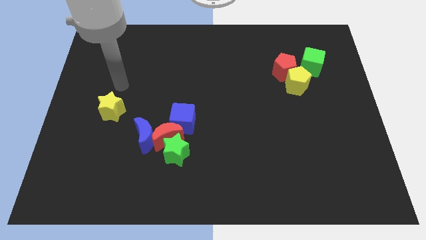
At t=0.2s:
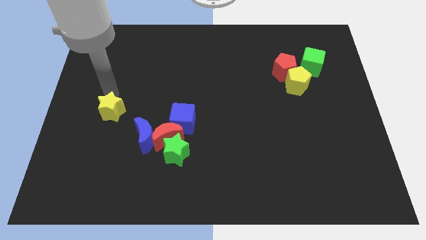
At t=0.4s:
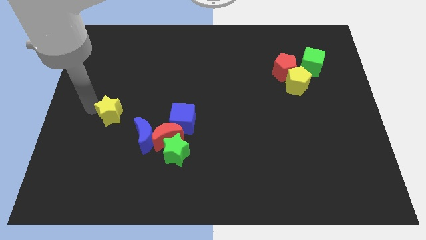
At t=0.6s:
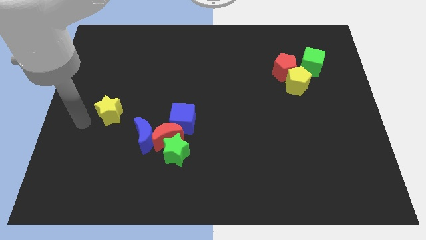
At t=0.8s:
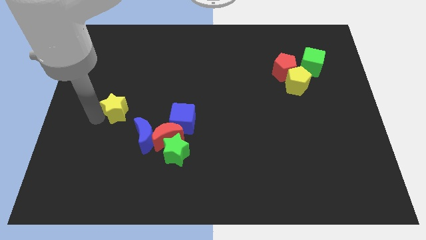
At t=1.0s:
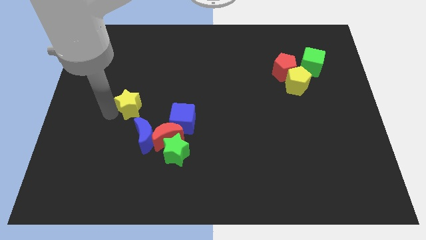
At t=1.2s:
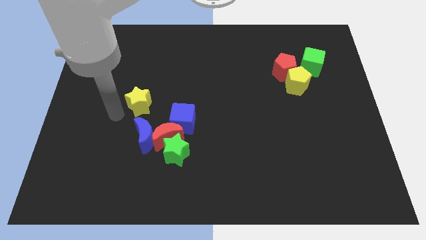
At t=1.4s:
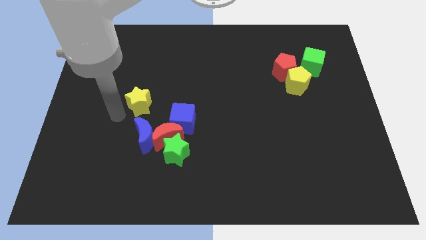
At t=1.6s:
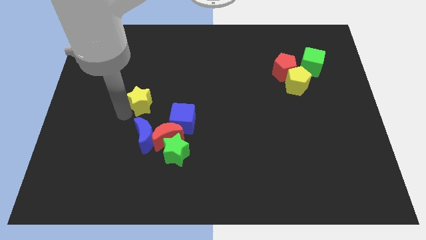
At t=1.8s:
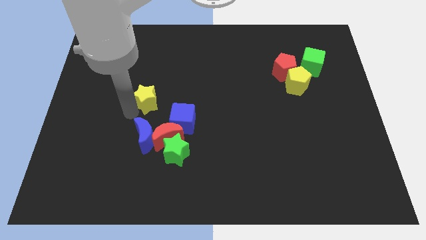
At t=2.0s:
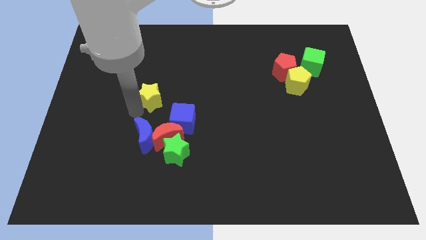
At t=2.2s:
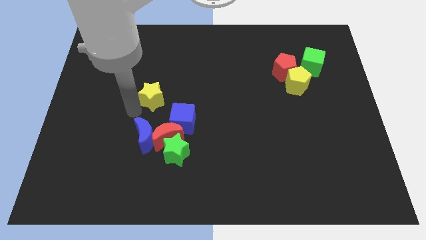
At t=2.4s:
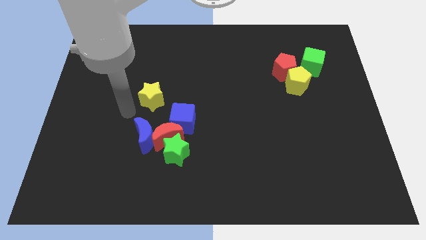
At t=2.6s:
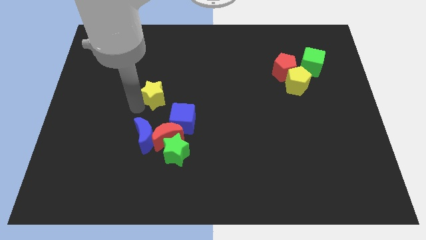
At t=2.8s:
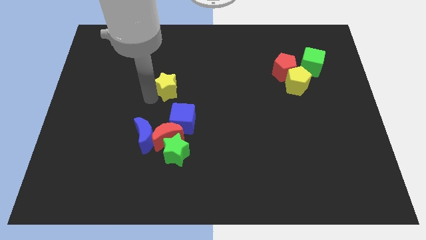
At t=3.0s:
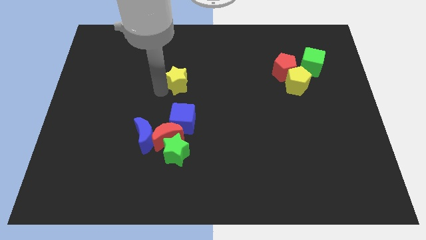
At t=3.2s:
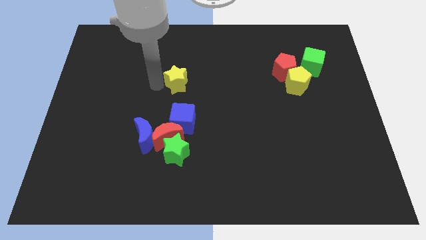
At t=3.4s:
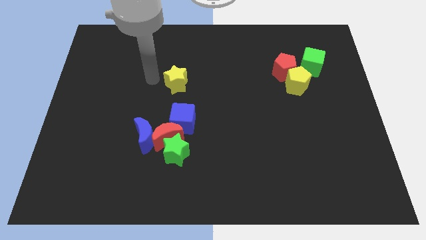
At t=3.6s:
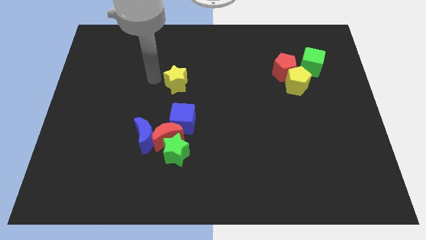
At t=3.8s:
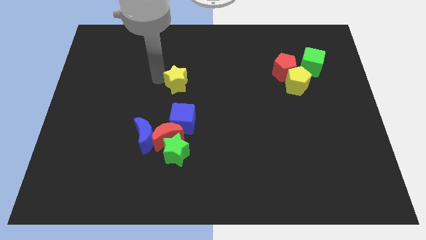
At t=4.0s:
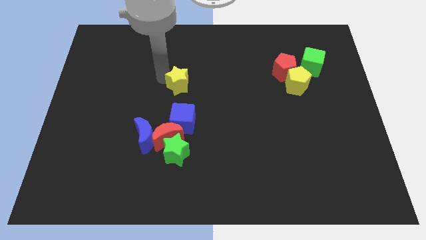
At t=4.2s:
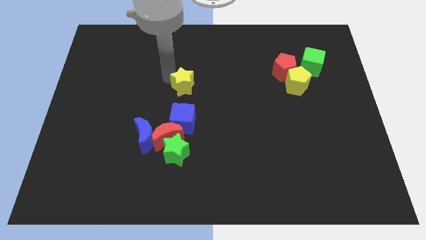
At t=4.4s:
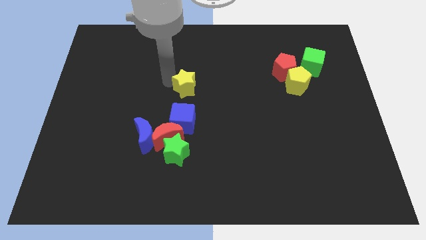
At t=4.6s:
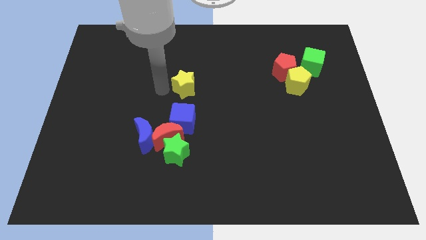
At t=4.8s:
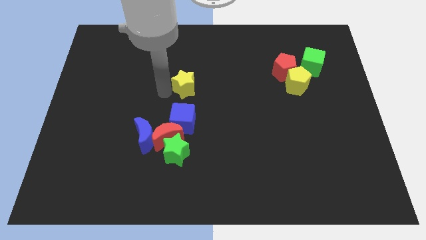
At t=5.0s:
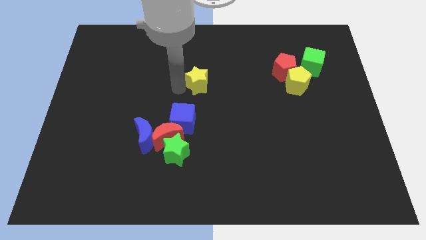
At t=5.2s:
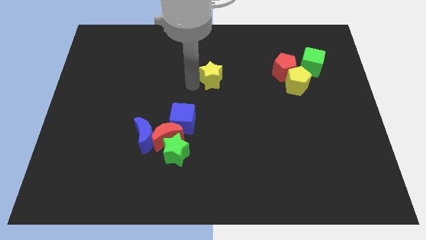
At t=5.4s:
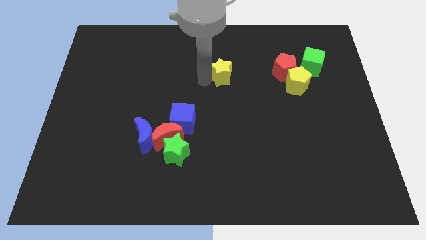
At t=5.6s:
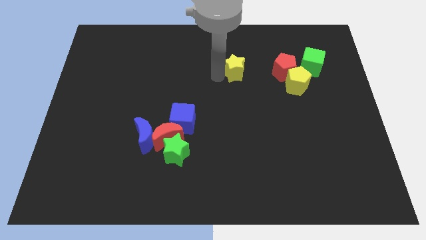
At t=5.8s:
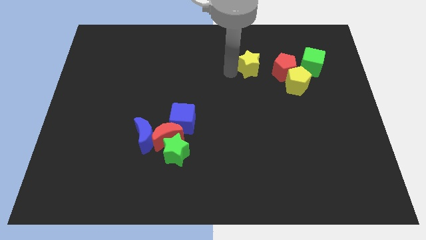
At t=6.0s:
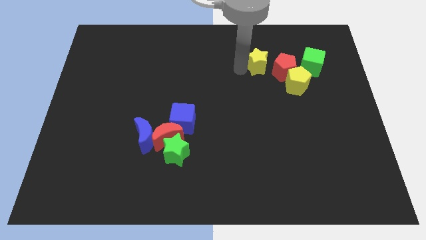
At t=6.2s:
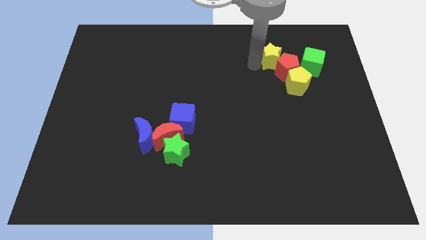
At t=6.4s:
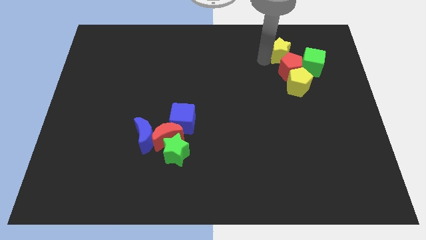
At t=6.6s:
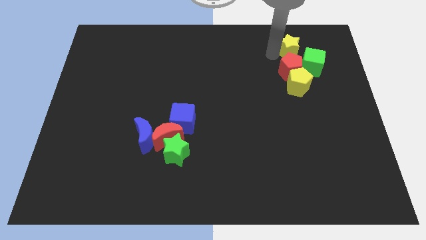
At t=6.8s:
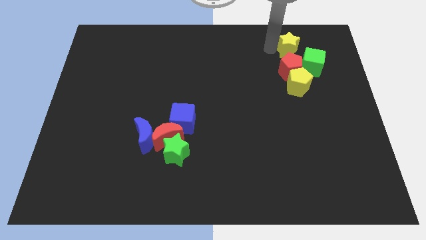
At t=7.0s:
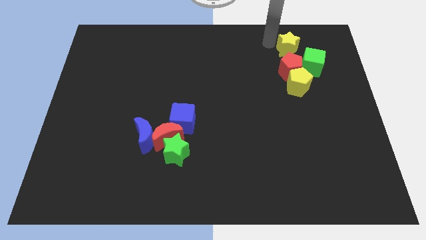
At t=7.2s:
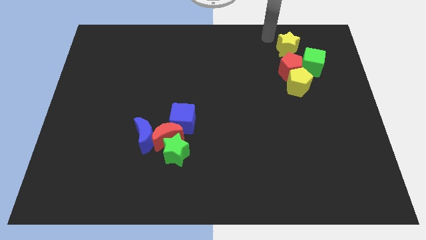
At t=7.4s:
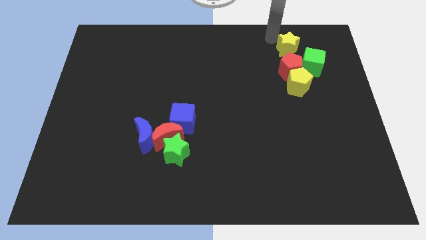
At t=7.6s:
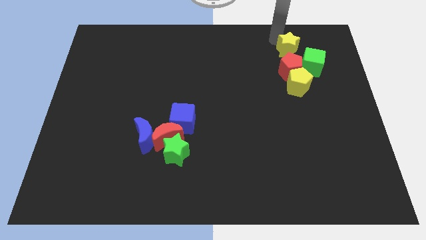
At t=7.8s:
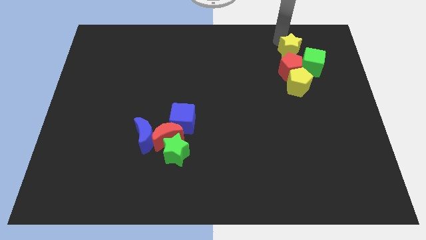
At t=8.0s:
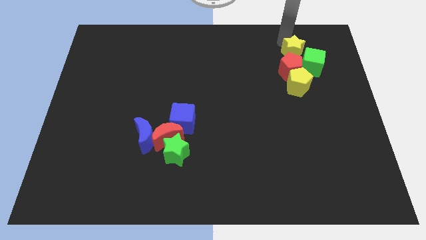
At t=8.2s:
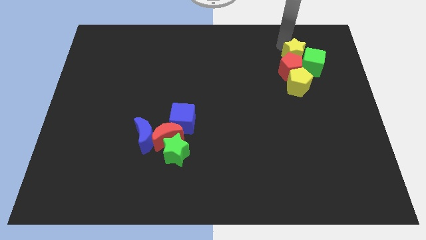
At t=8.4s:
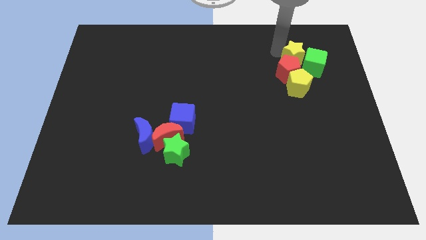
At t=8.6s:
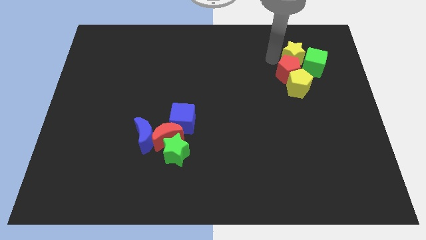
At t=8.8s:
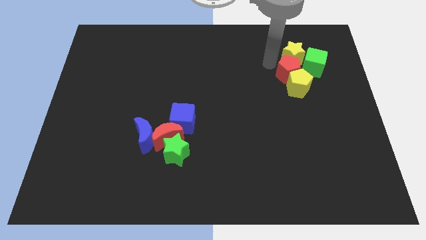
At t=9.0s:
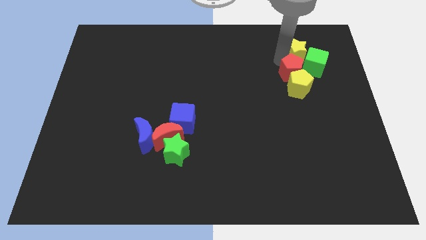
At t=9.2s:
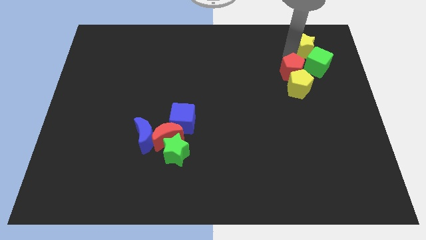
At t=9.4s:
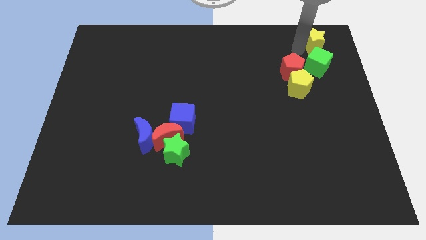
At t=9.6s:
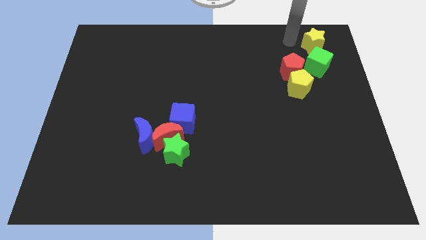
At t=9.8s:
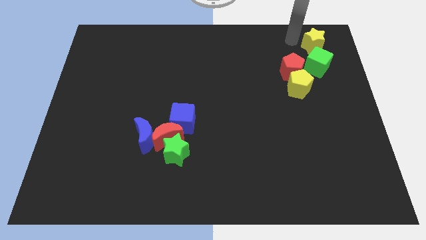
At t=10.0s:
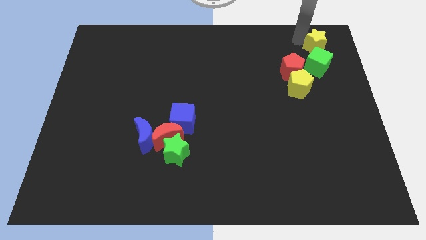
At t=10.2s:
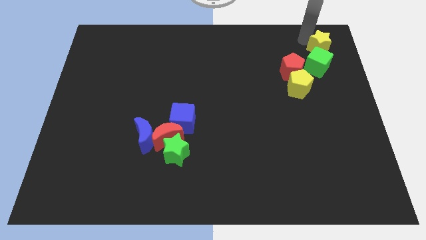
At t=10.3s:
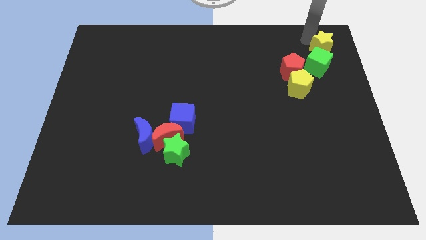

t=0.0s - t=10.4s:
push the yellow star to the upper right corner

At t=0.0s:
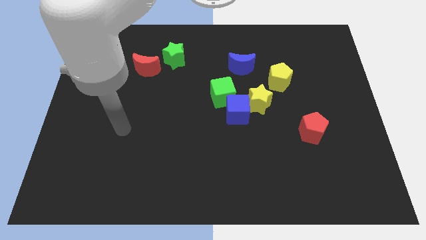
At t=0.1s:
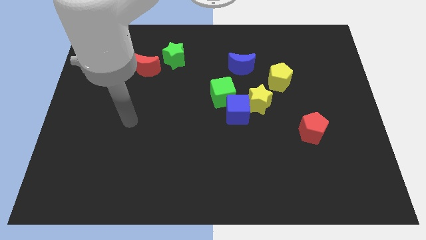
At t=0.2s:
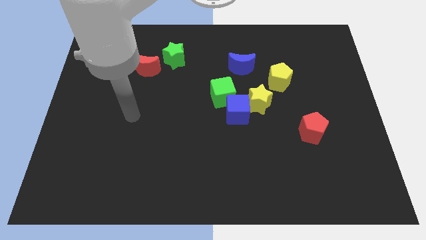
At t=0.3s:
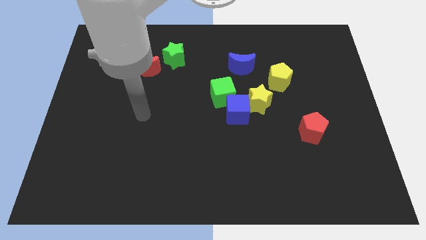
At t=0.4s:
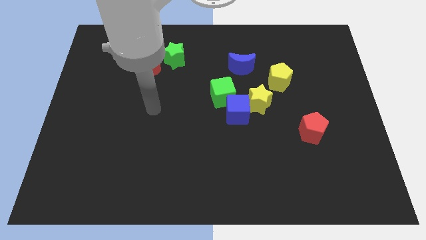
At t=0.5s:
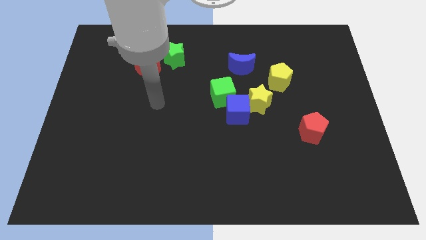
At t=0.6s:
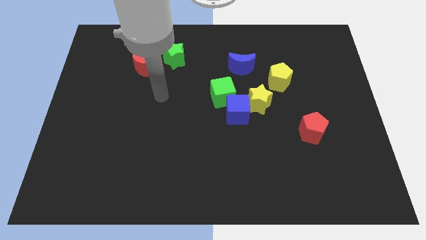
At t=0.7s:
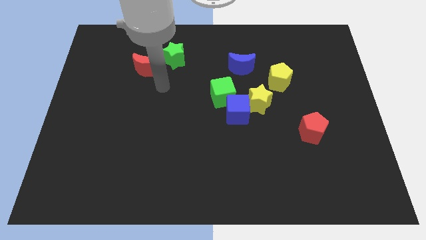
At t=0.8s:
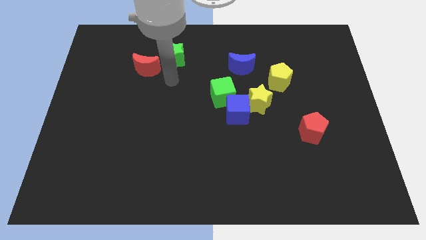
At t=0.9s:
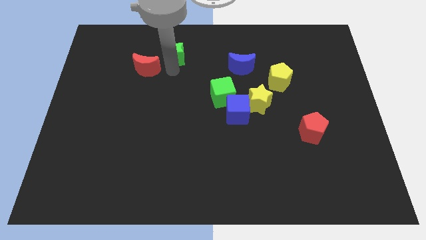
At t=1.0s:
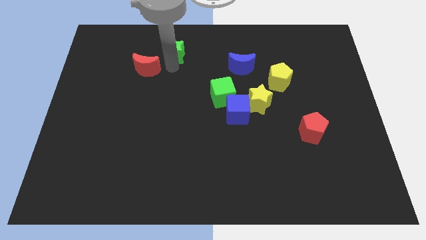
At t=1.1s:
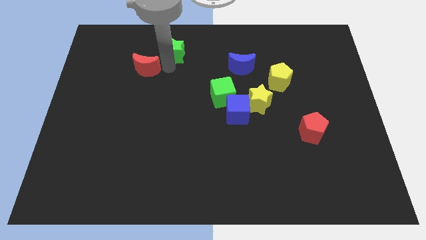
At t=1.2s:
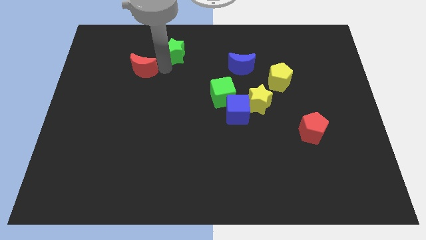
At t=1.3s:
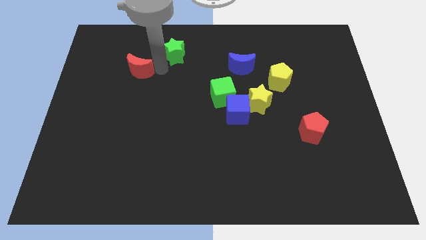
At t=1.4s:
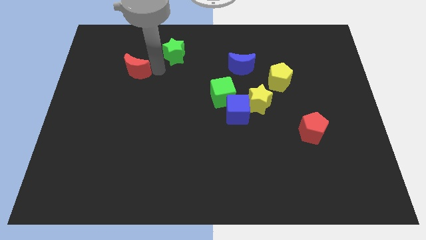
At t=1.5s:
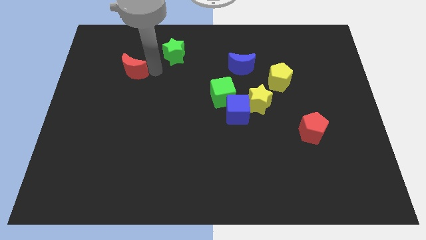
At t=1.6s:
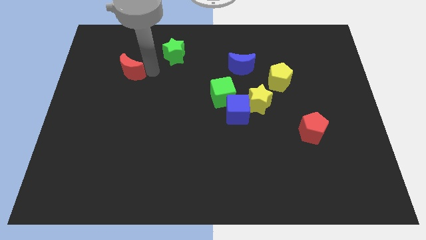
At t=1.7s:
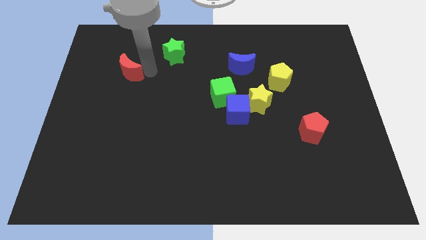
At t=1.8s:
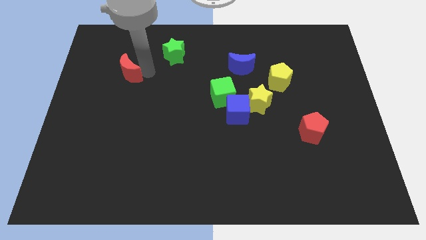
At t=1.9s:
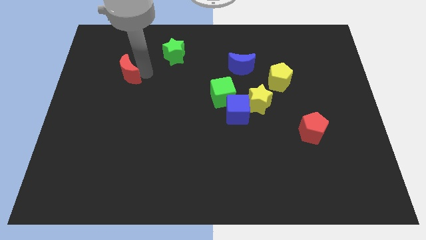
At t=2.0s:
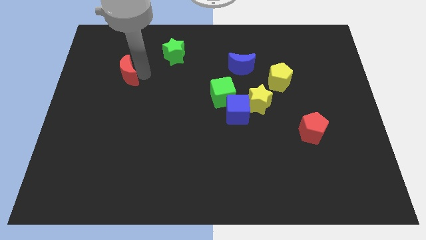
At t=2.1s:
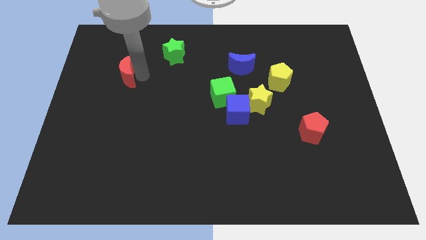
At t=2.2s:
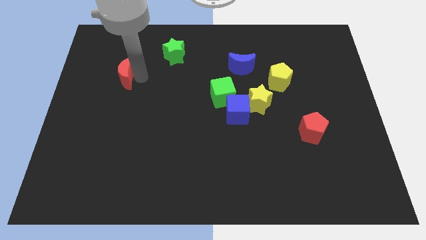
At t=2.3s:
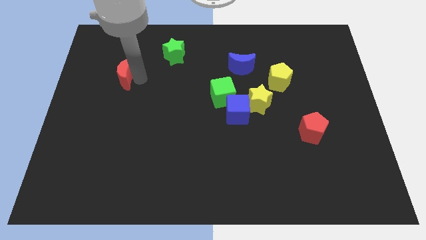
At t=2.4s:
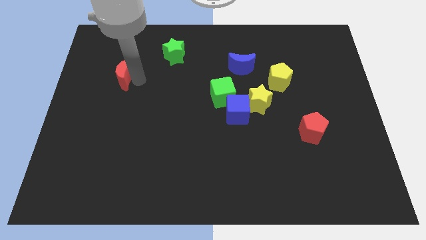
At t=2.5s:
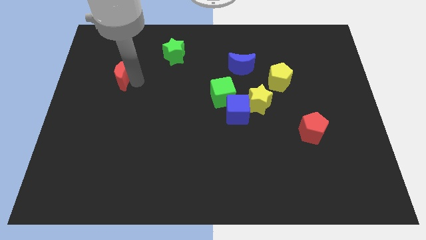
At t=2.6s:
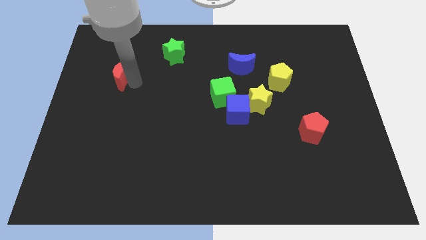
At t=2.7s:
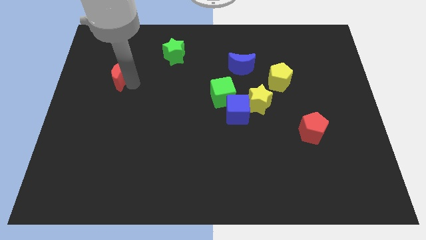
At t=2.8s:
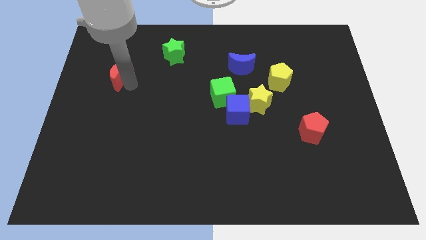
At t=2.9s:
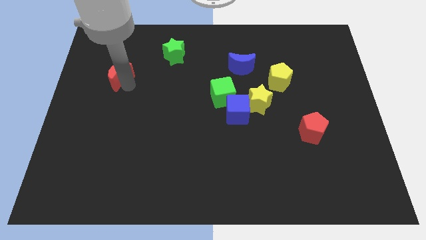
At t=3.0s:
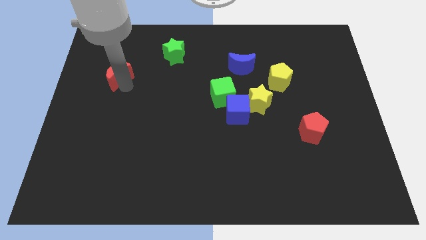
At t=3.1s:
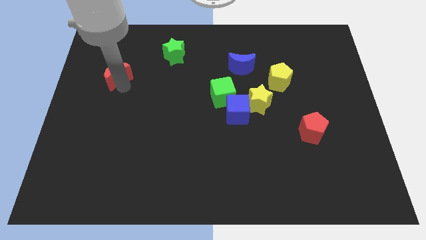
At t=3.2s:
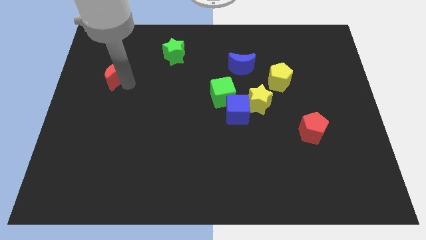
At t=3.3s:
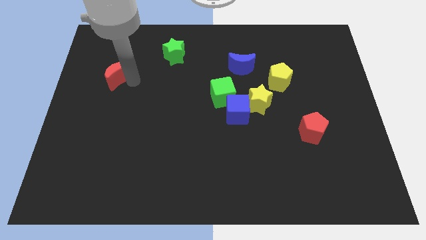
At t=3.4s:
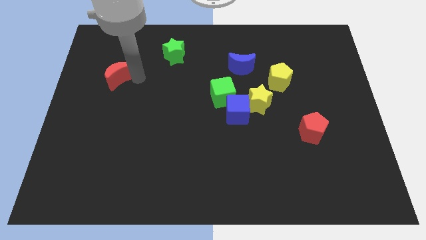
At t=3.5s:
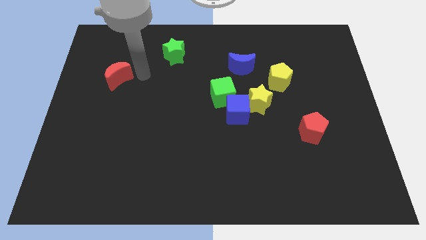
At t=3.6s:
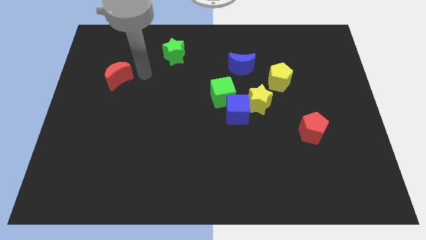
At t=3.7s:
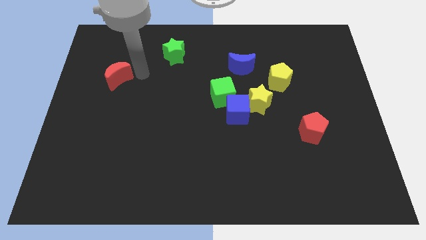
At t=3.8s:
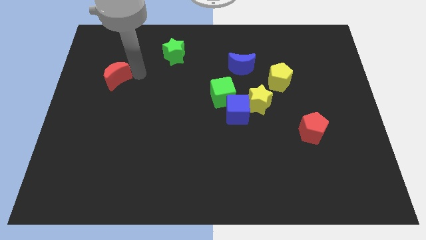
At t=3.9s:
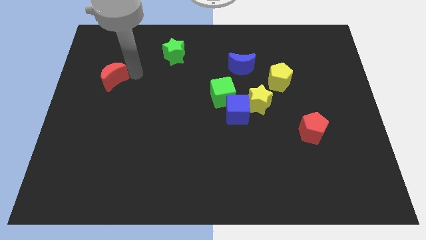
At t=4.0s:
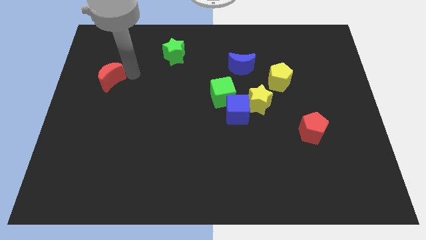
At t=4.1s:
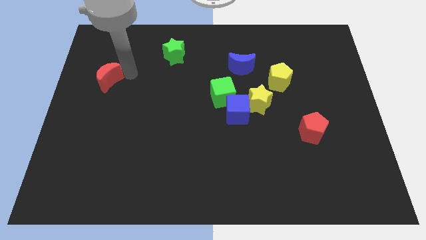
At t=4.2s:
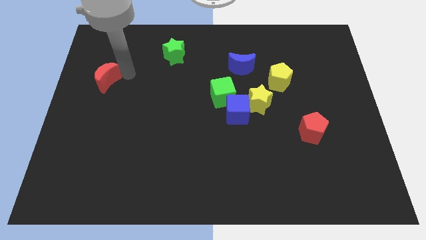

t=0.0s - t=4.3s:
push the red moon to the center left
